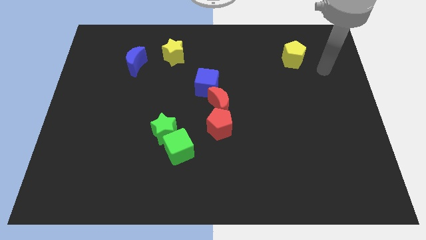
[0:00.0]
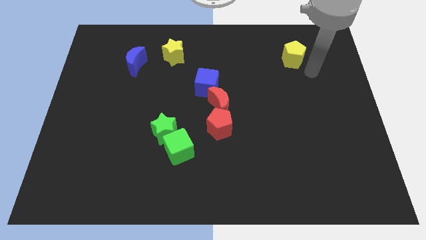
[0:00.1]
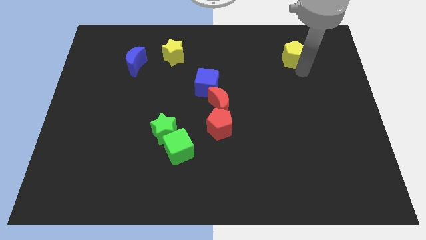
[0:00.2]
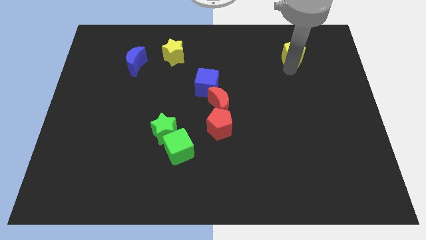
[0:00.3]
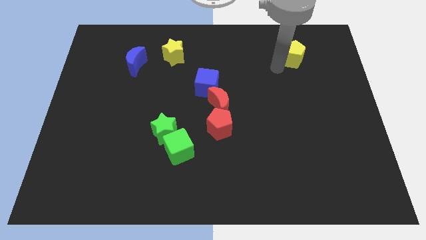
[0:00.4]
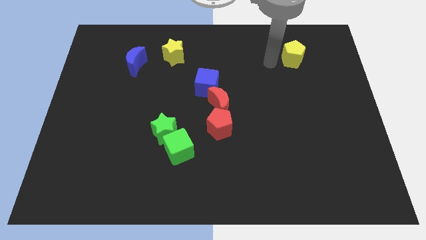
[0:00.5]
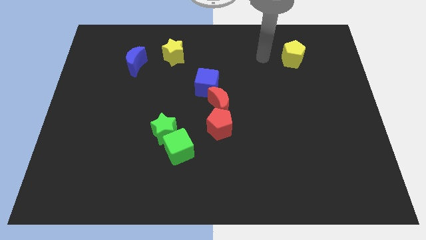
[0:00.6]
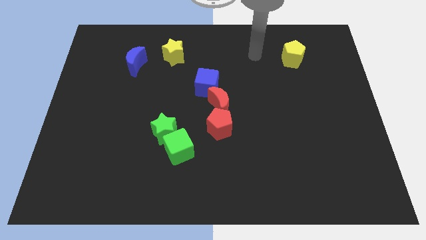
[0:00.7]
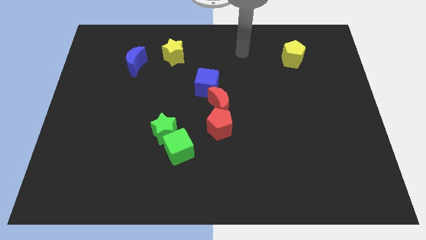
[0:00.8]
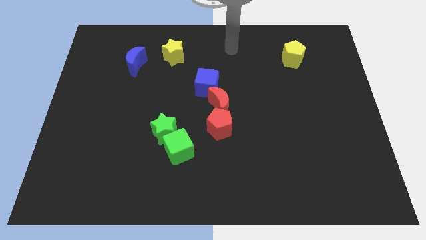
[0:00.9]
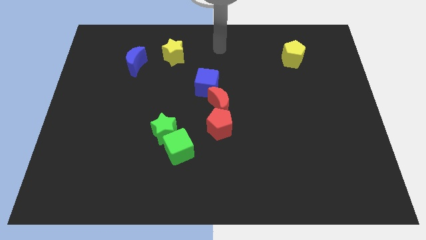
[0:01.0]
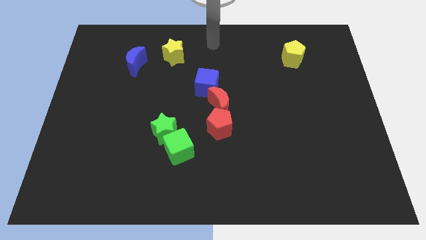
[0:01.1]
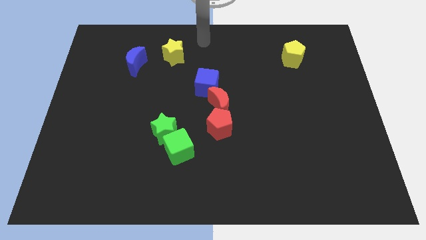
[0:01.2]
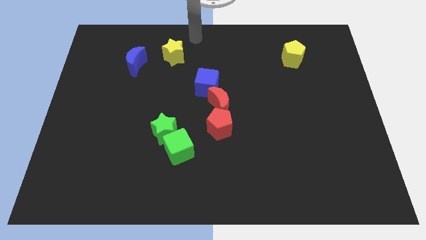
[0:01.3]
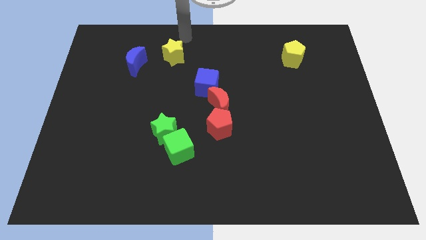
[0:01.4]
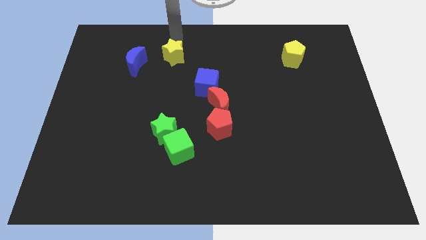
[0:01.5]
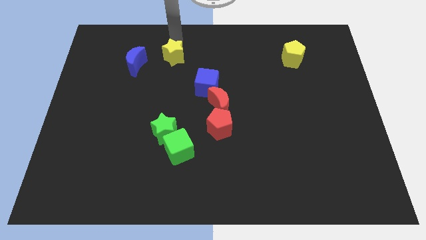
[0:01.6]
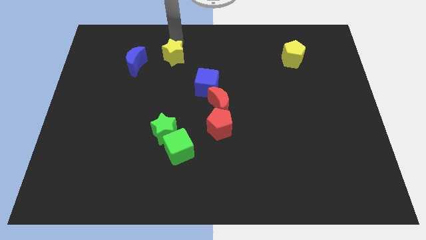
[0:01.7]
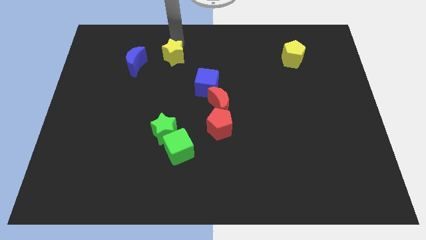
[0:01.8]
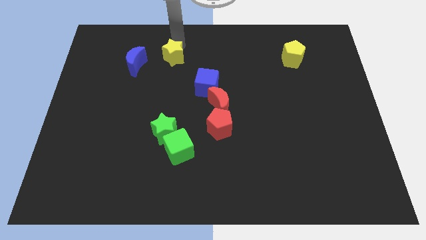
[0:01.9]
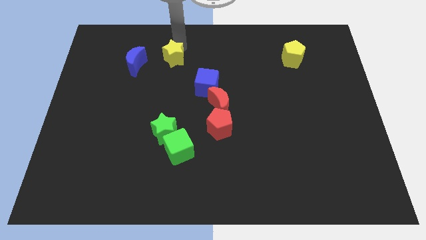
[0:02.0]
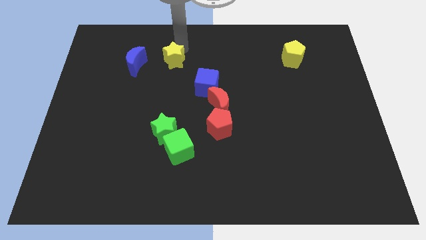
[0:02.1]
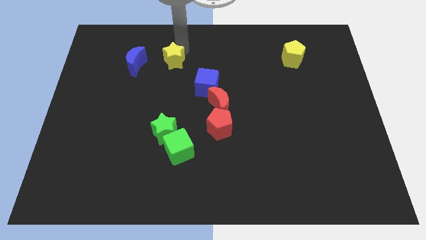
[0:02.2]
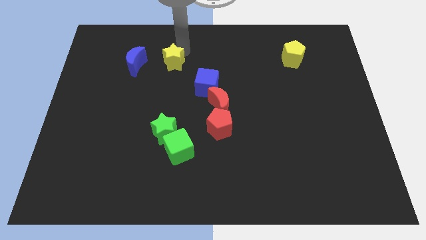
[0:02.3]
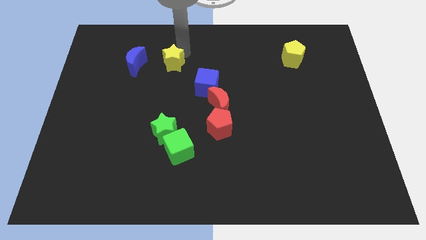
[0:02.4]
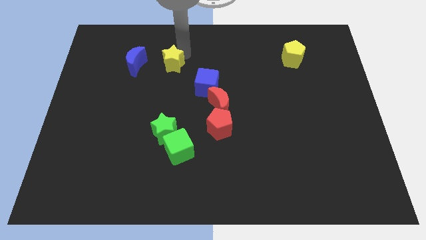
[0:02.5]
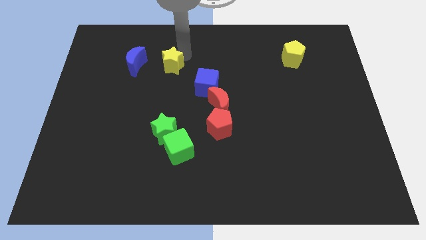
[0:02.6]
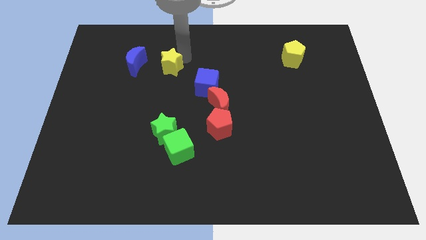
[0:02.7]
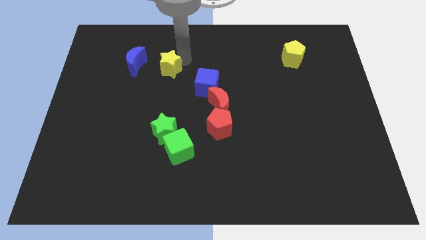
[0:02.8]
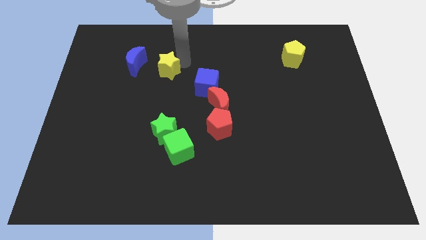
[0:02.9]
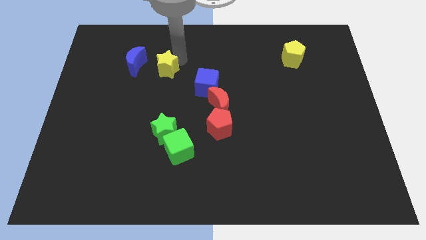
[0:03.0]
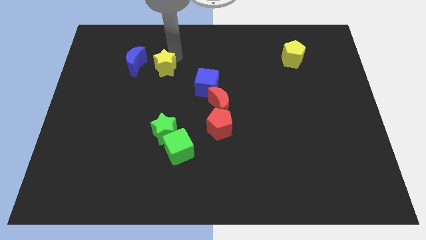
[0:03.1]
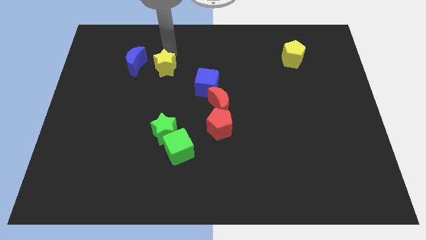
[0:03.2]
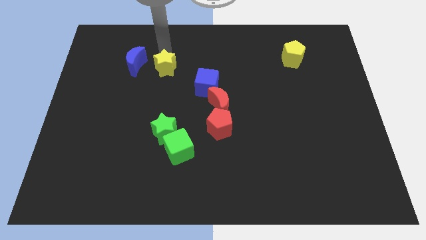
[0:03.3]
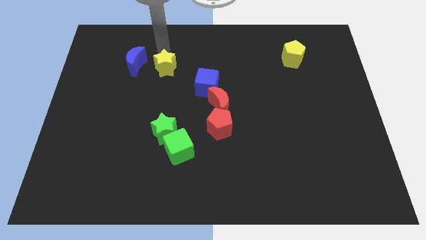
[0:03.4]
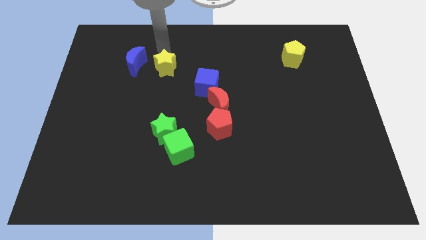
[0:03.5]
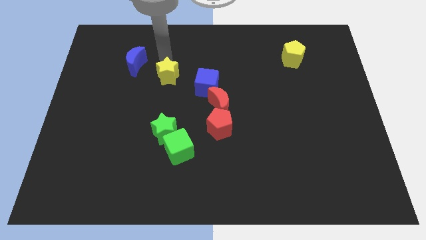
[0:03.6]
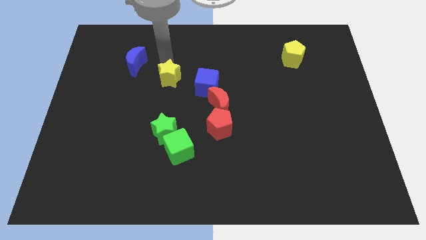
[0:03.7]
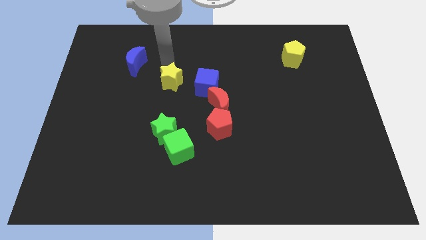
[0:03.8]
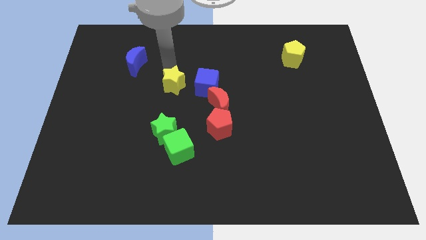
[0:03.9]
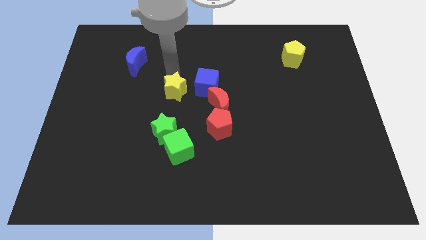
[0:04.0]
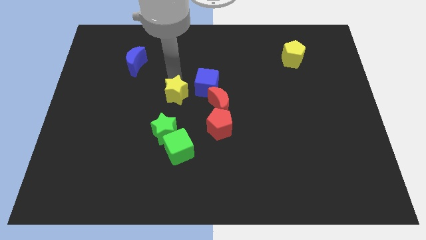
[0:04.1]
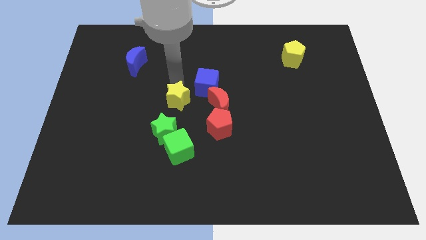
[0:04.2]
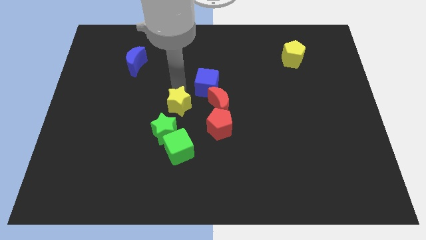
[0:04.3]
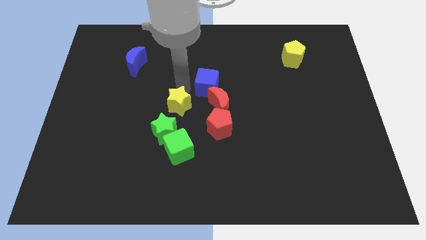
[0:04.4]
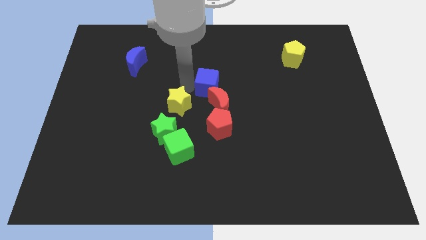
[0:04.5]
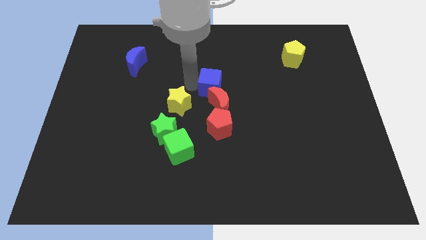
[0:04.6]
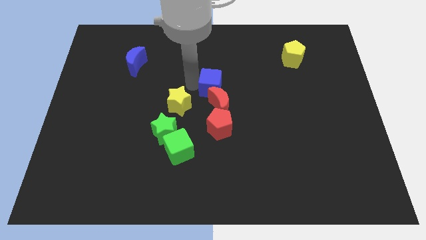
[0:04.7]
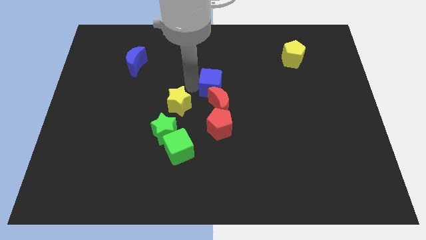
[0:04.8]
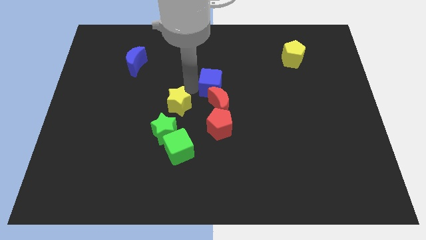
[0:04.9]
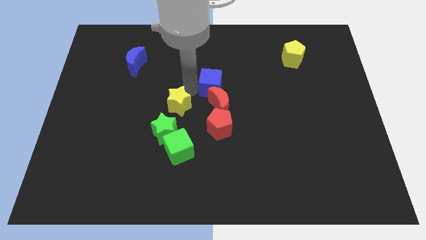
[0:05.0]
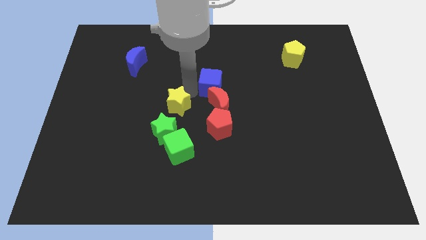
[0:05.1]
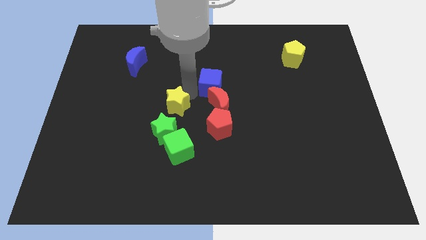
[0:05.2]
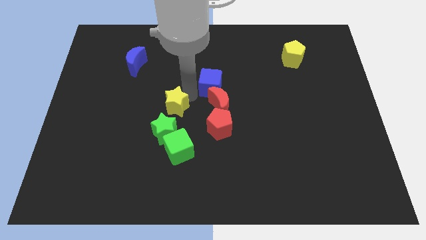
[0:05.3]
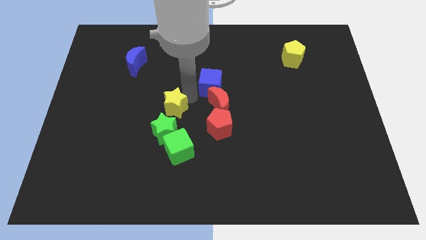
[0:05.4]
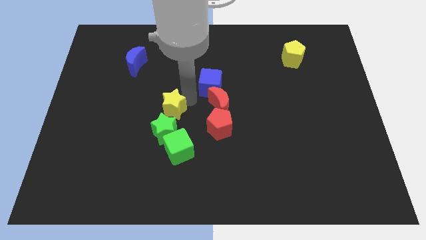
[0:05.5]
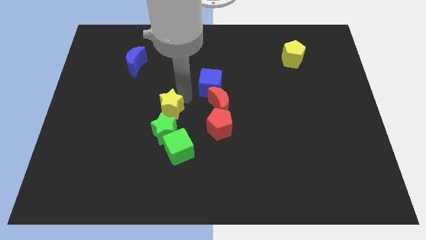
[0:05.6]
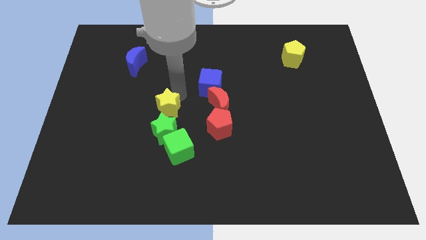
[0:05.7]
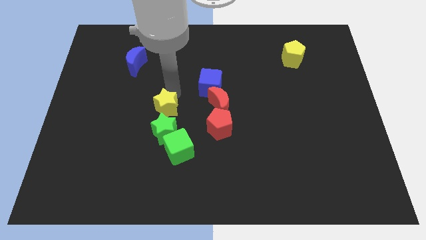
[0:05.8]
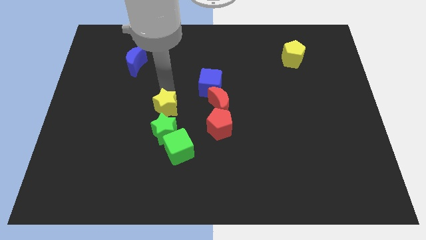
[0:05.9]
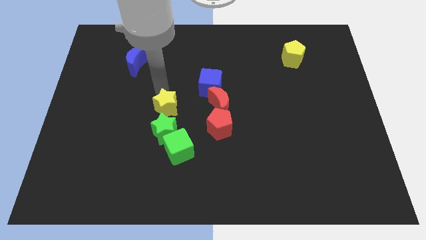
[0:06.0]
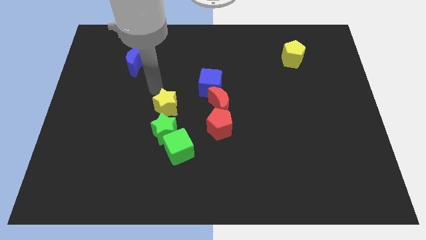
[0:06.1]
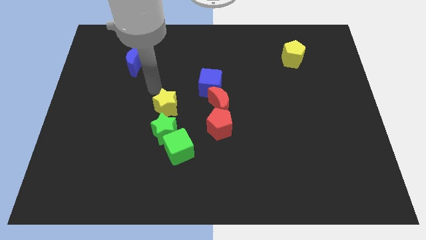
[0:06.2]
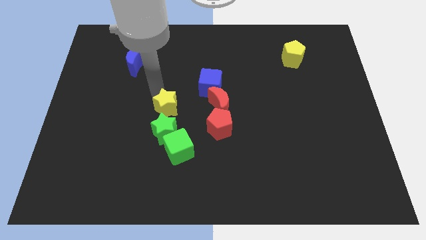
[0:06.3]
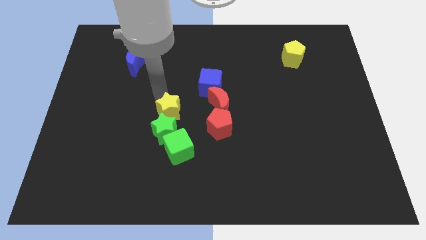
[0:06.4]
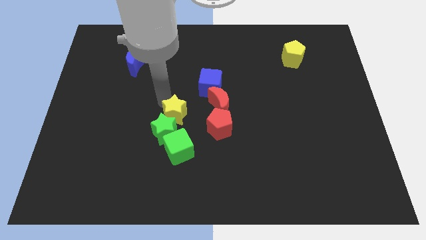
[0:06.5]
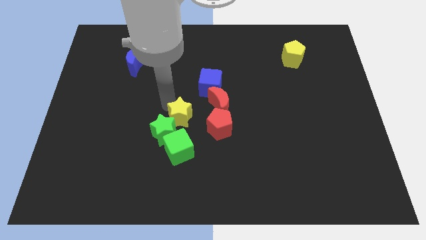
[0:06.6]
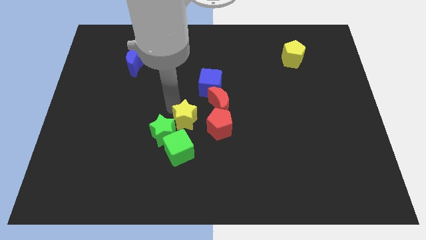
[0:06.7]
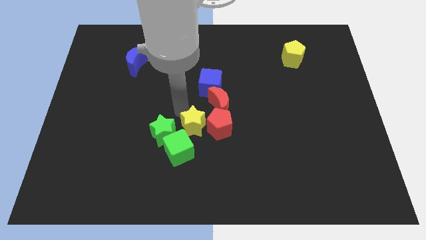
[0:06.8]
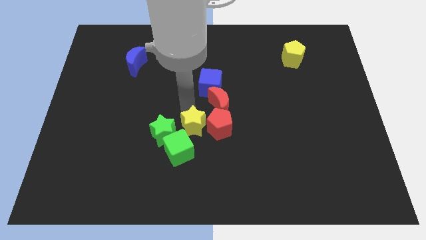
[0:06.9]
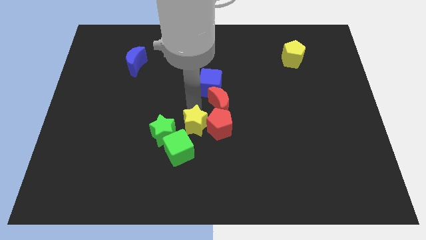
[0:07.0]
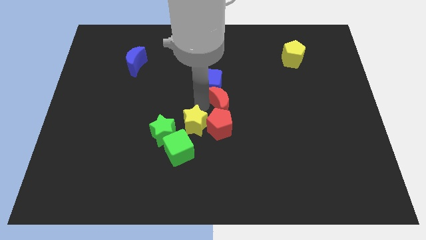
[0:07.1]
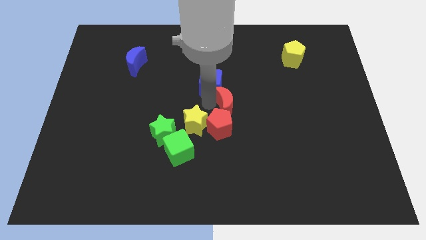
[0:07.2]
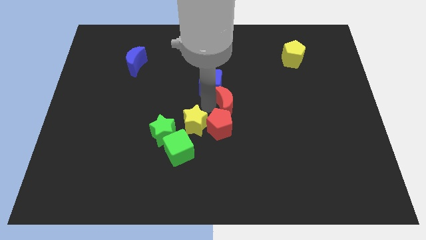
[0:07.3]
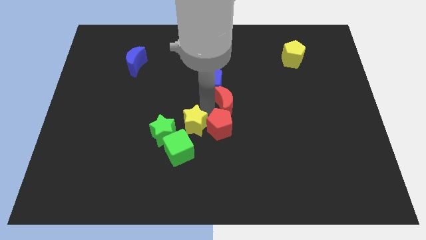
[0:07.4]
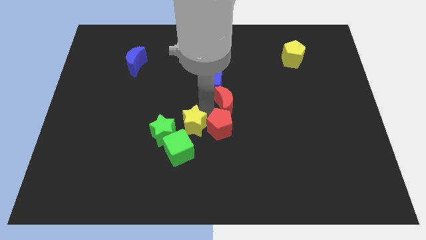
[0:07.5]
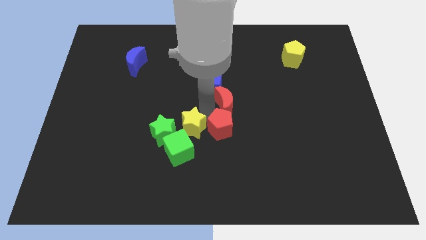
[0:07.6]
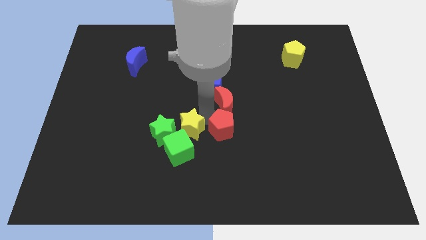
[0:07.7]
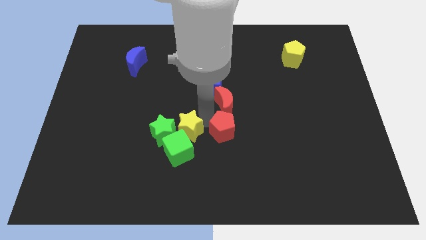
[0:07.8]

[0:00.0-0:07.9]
push the yellow star to the green cube
